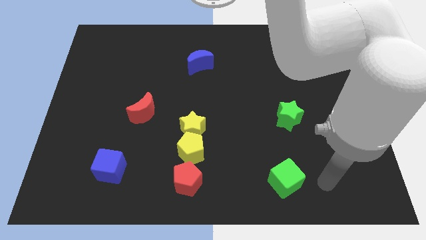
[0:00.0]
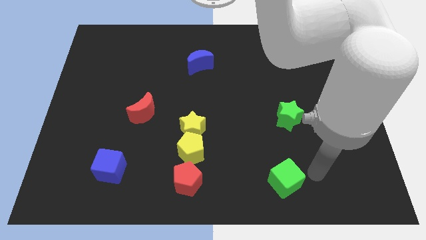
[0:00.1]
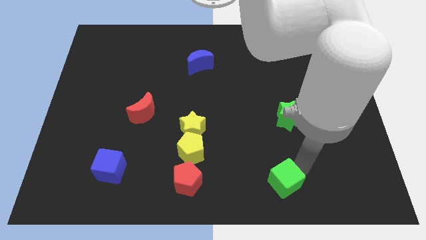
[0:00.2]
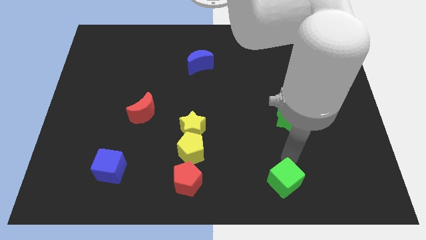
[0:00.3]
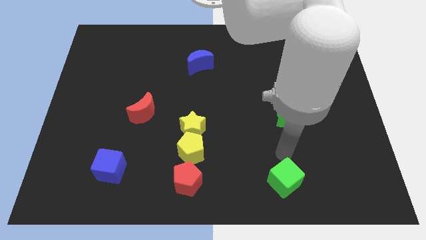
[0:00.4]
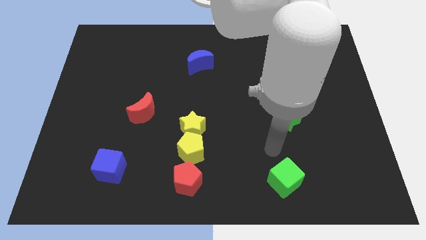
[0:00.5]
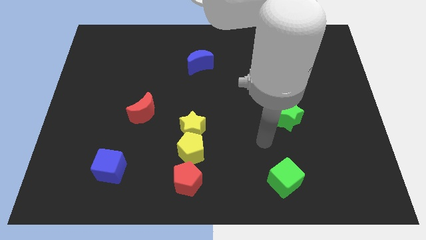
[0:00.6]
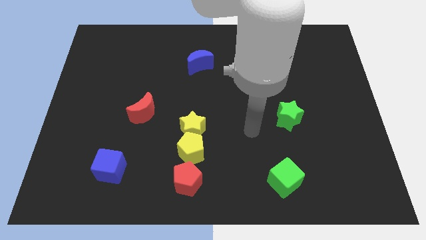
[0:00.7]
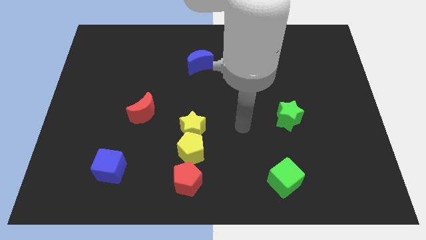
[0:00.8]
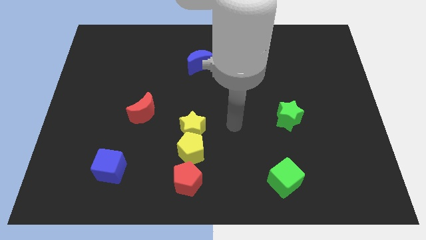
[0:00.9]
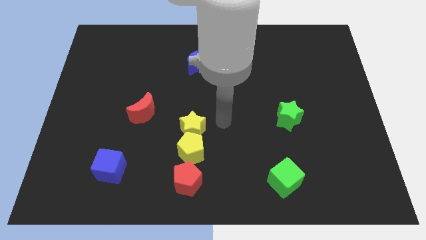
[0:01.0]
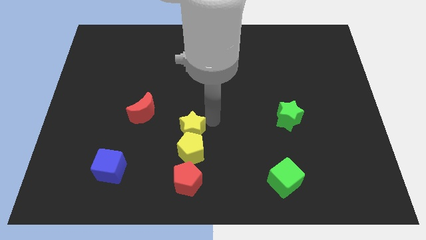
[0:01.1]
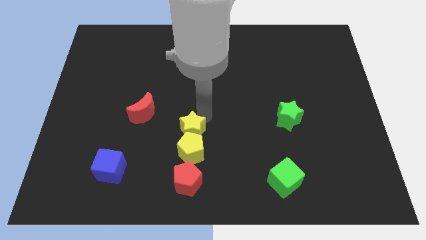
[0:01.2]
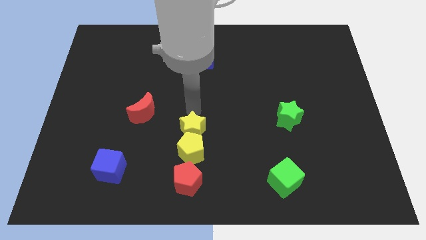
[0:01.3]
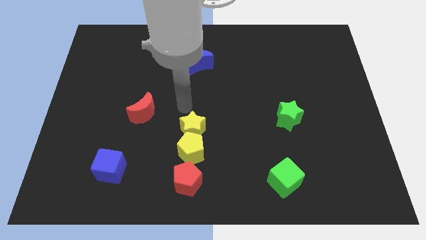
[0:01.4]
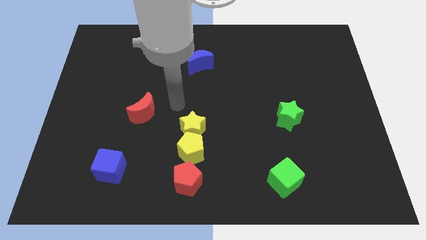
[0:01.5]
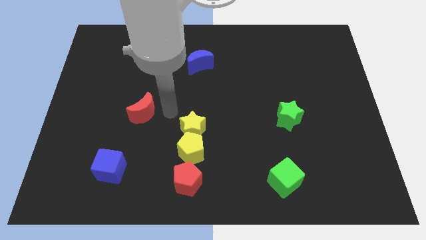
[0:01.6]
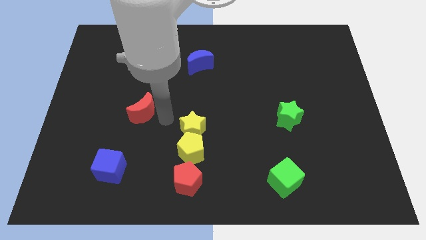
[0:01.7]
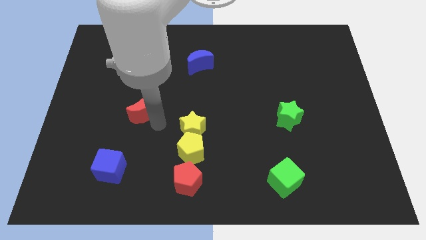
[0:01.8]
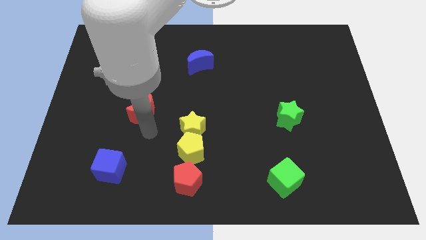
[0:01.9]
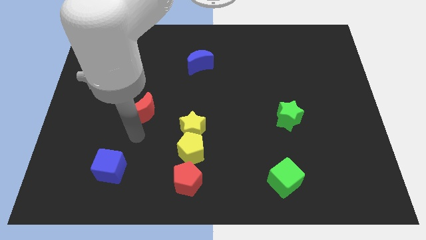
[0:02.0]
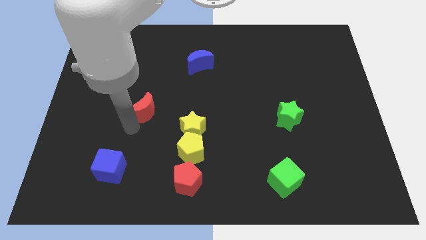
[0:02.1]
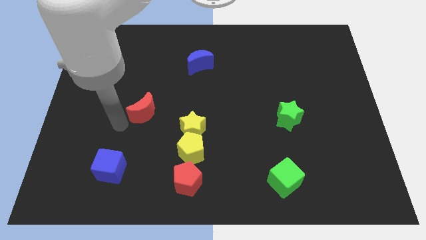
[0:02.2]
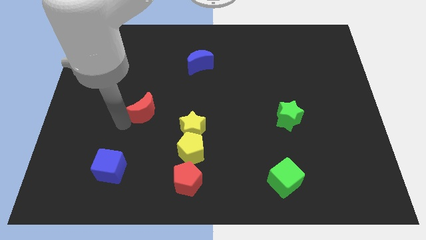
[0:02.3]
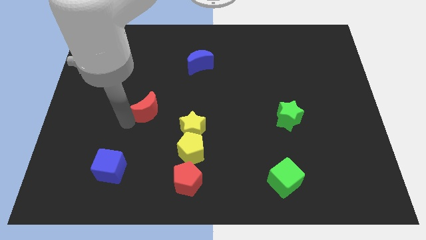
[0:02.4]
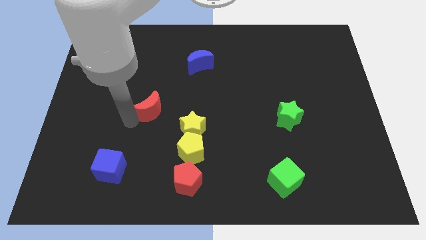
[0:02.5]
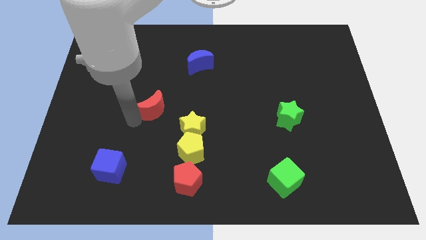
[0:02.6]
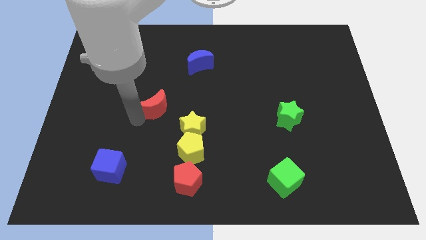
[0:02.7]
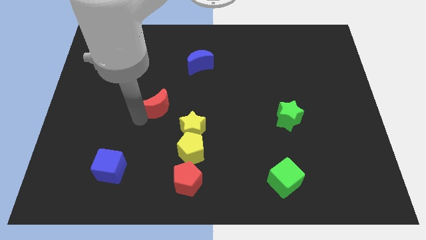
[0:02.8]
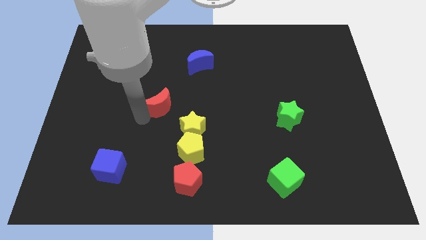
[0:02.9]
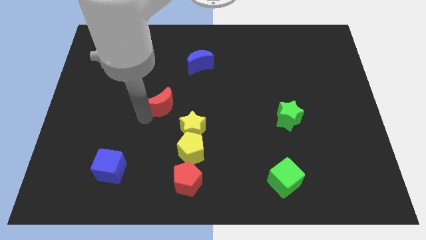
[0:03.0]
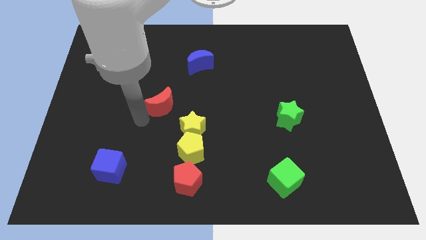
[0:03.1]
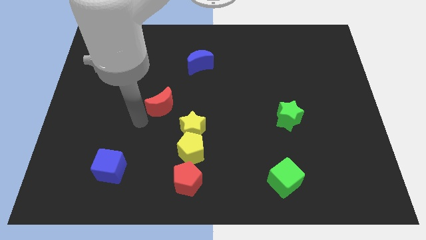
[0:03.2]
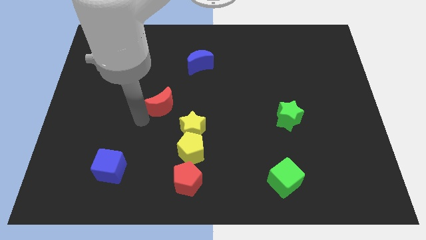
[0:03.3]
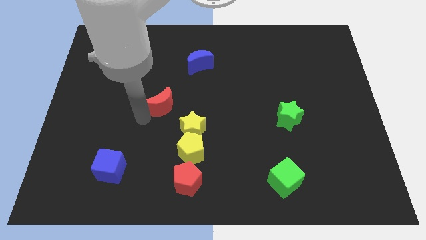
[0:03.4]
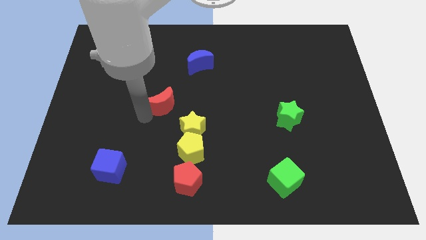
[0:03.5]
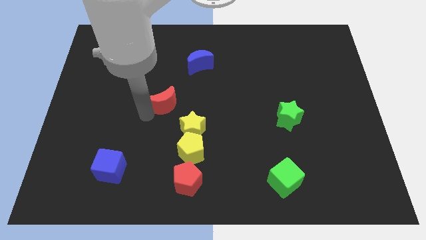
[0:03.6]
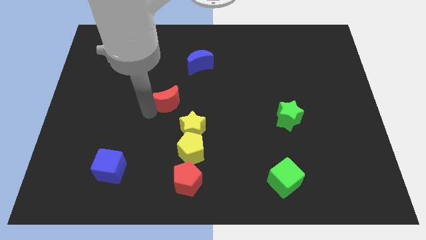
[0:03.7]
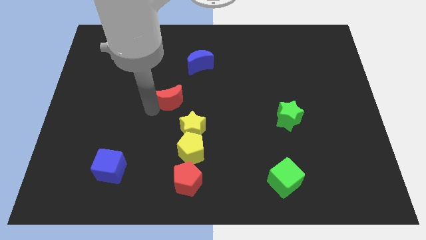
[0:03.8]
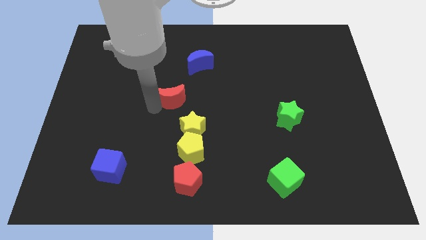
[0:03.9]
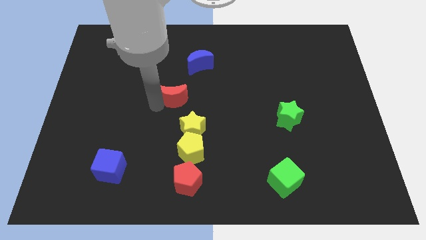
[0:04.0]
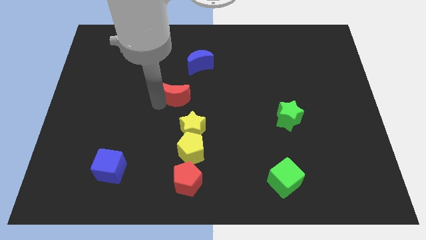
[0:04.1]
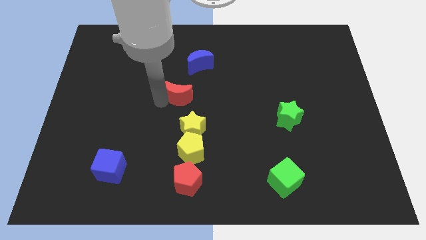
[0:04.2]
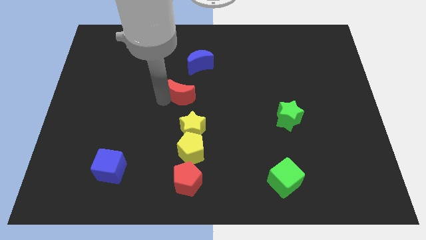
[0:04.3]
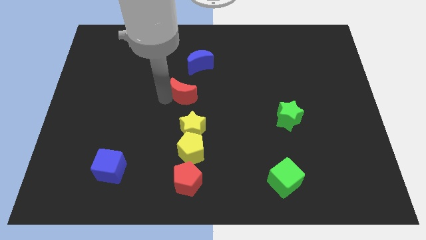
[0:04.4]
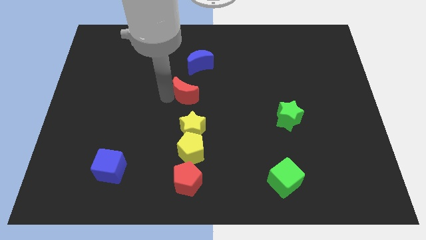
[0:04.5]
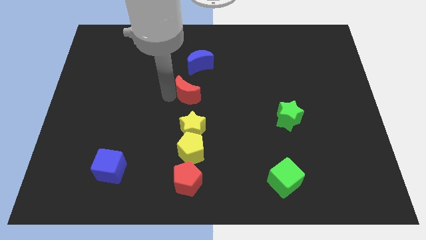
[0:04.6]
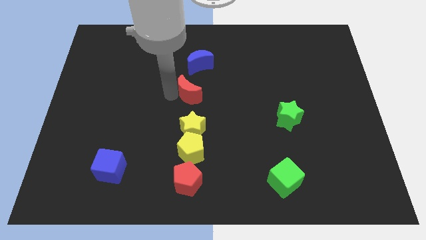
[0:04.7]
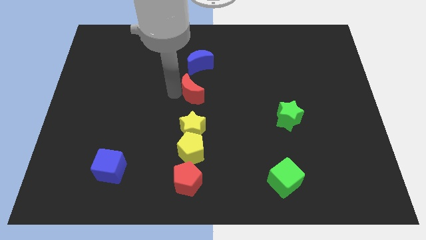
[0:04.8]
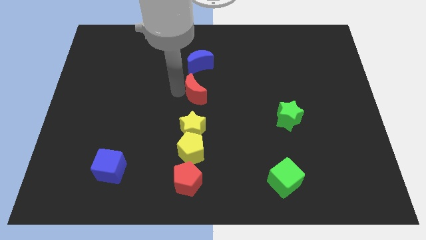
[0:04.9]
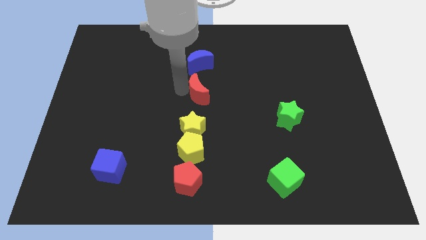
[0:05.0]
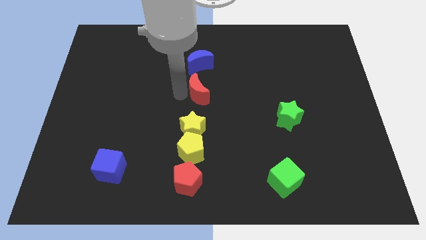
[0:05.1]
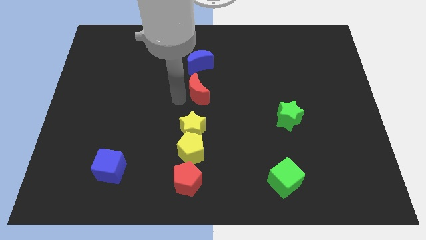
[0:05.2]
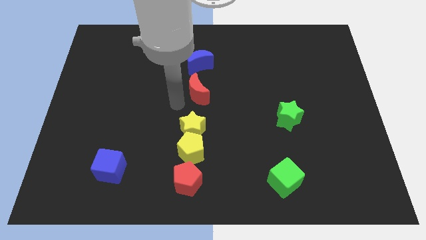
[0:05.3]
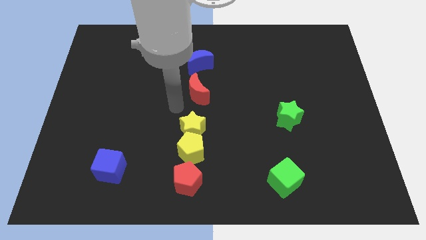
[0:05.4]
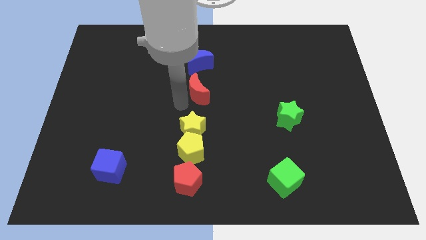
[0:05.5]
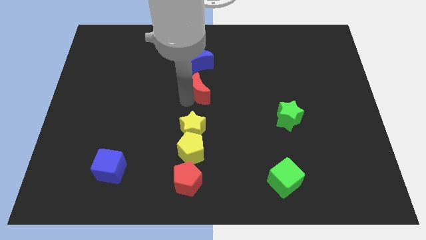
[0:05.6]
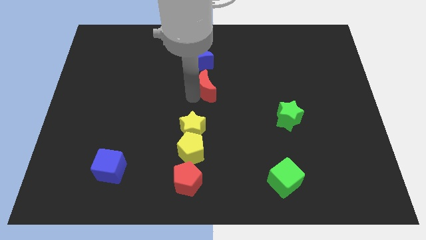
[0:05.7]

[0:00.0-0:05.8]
slide the red moon to the bottom right of the blue moon

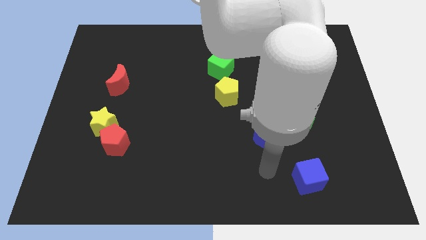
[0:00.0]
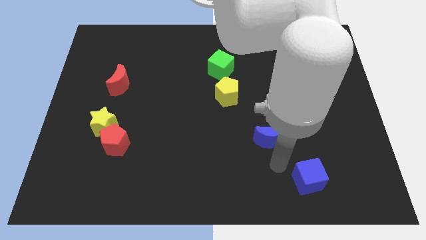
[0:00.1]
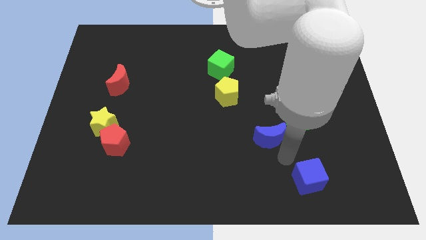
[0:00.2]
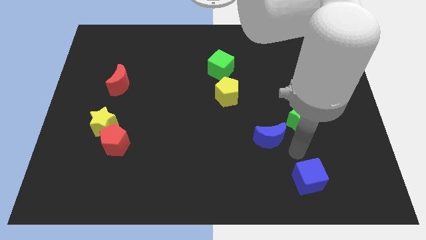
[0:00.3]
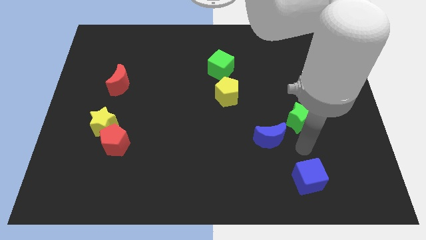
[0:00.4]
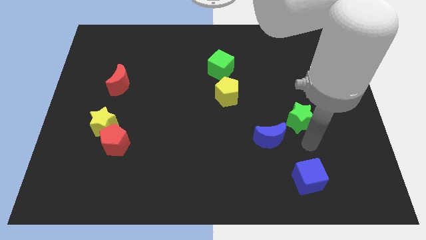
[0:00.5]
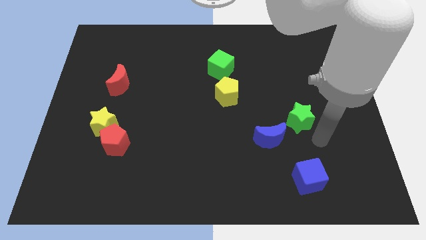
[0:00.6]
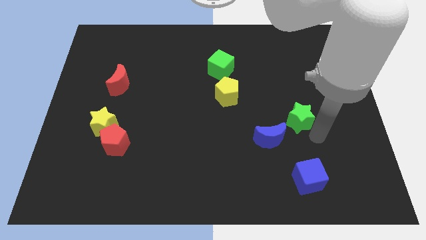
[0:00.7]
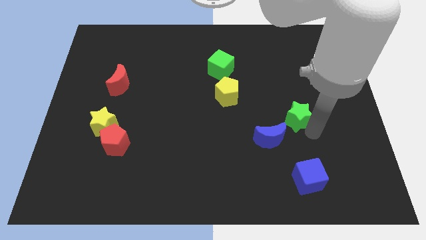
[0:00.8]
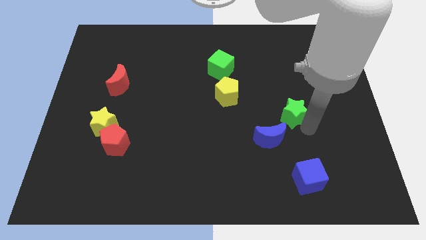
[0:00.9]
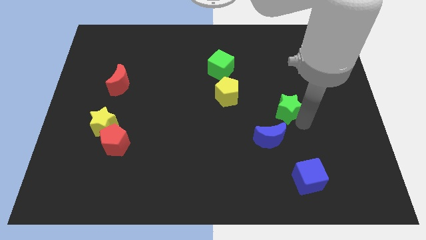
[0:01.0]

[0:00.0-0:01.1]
put the green star to the top side of the blue moon
